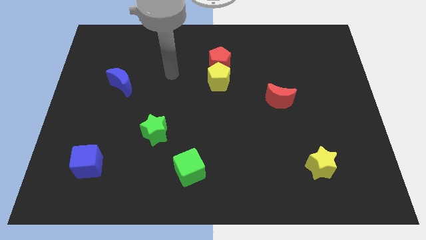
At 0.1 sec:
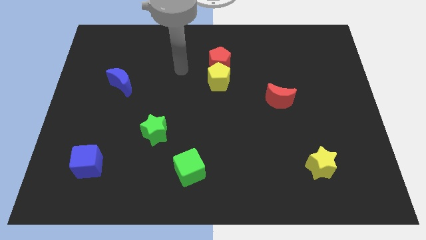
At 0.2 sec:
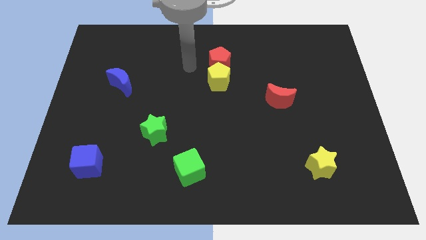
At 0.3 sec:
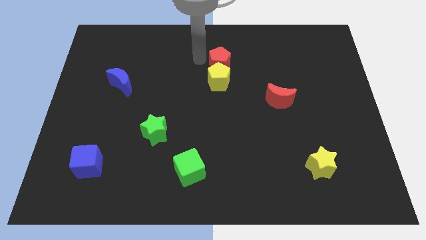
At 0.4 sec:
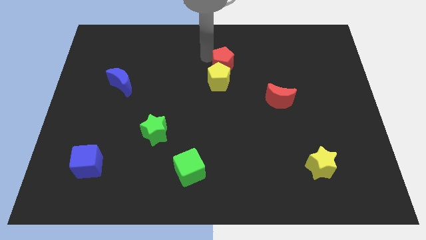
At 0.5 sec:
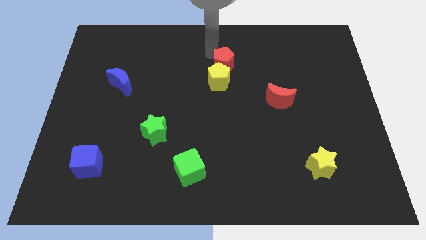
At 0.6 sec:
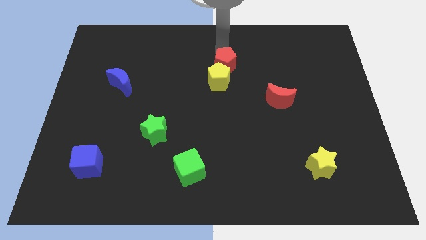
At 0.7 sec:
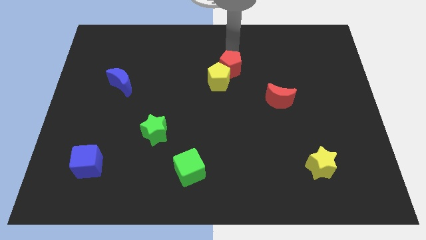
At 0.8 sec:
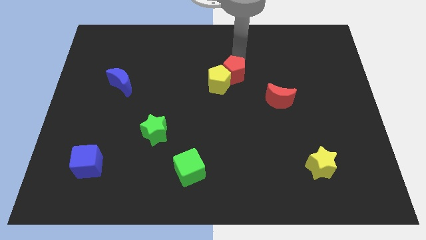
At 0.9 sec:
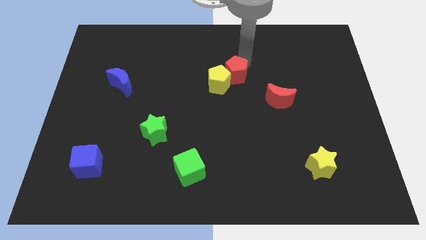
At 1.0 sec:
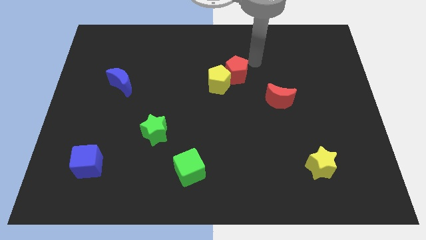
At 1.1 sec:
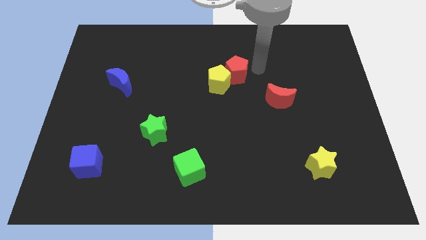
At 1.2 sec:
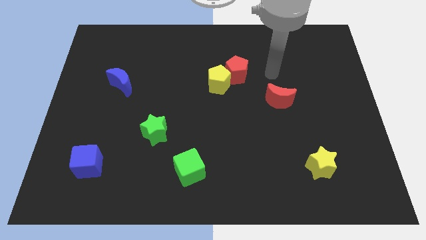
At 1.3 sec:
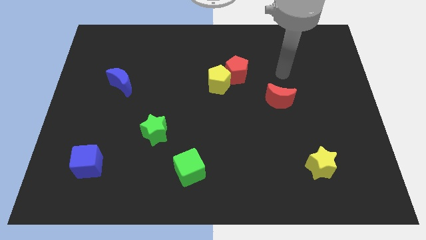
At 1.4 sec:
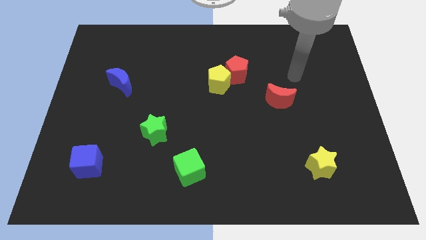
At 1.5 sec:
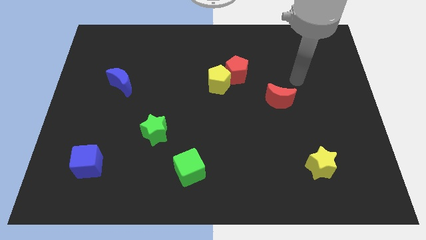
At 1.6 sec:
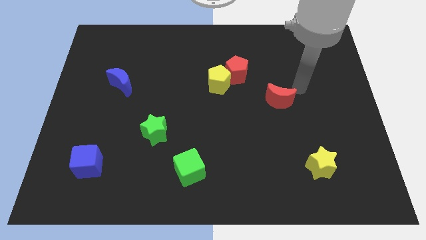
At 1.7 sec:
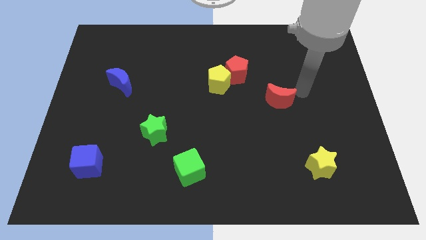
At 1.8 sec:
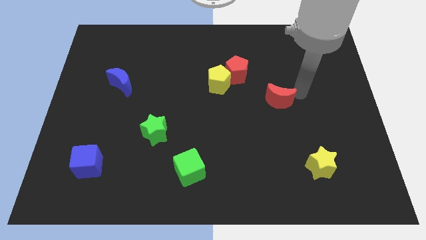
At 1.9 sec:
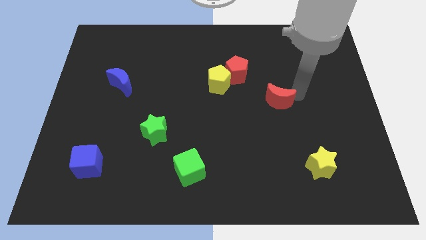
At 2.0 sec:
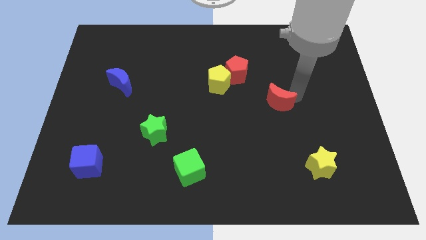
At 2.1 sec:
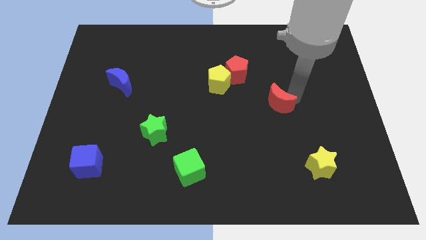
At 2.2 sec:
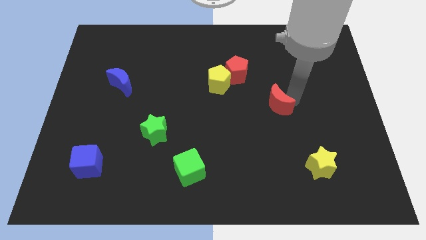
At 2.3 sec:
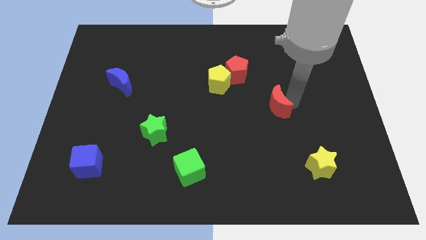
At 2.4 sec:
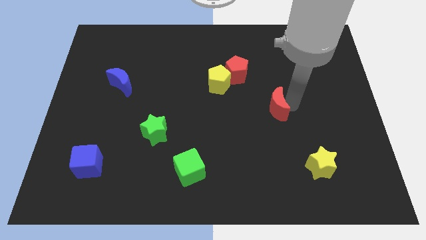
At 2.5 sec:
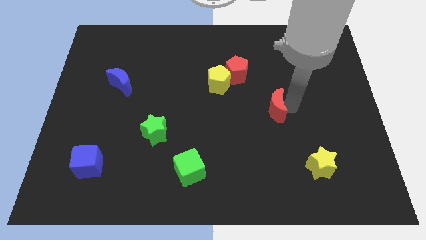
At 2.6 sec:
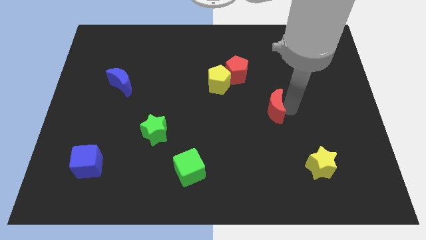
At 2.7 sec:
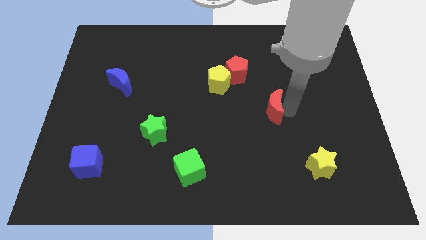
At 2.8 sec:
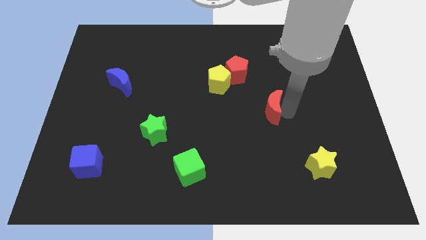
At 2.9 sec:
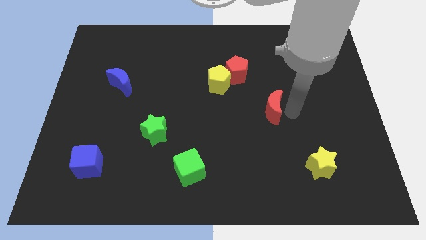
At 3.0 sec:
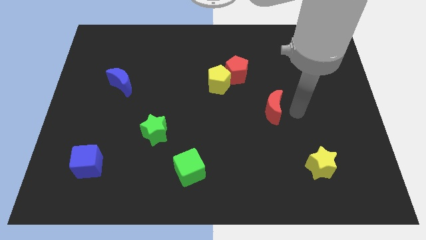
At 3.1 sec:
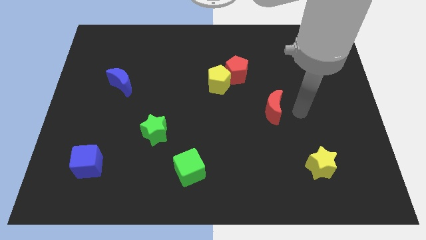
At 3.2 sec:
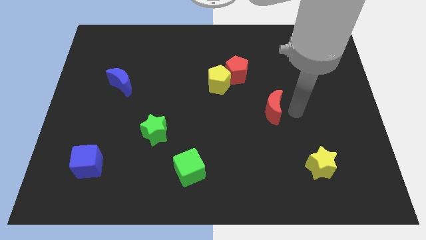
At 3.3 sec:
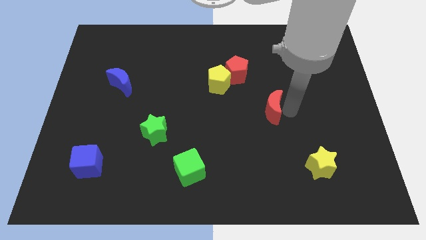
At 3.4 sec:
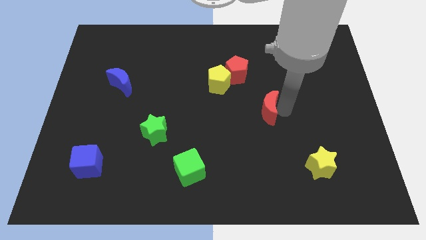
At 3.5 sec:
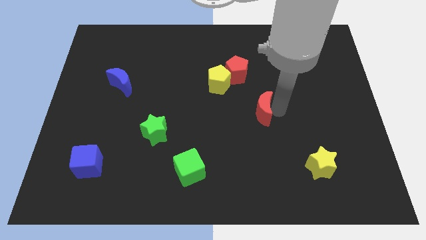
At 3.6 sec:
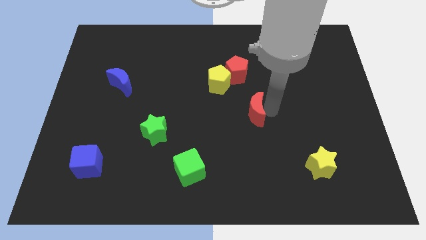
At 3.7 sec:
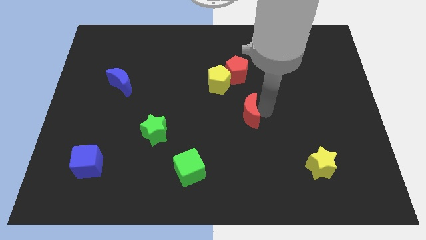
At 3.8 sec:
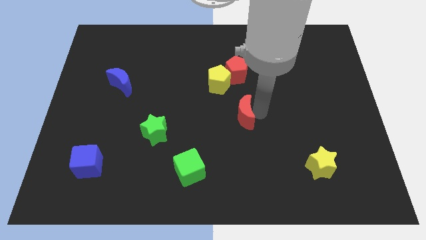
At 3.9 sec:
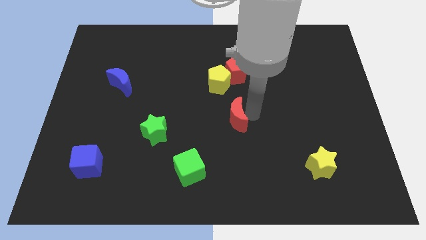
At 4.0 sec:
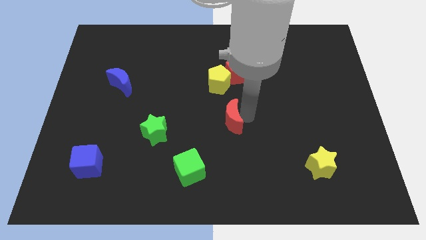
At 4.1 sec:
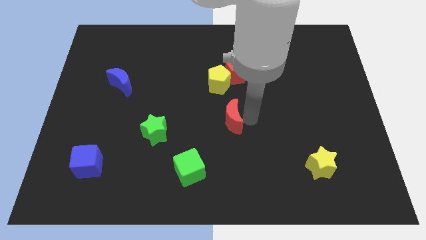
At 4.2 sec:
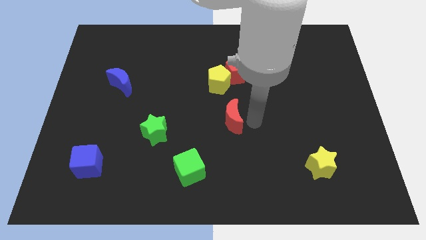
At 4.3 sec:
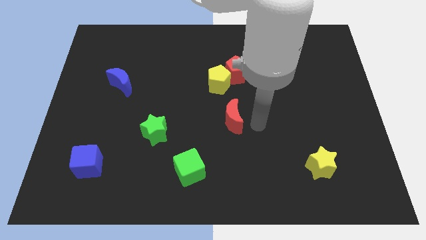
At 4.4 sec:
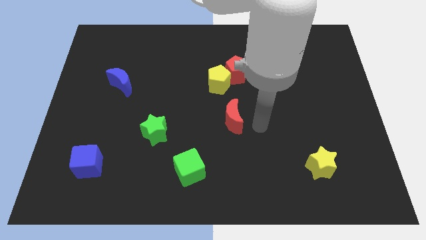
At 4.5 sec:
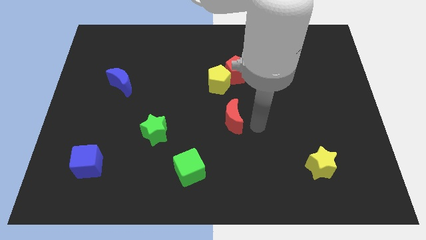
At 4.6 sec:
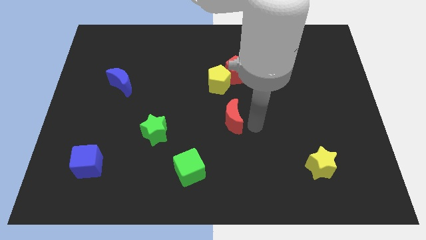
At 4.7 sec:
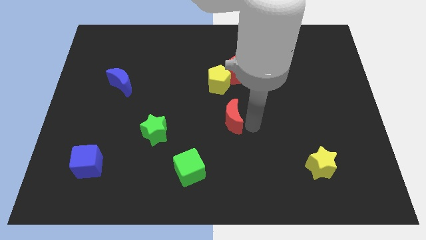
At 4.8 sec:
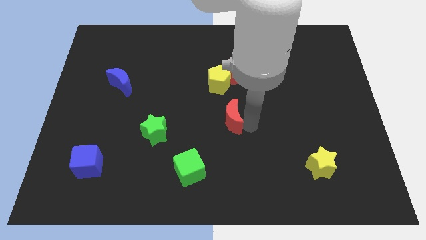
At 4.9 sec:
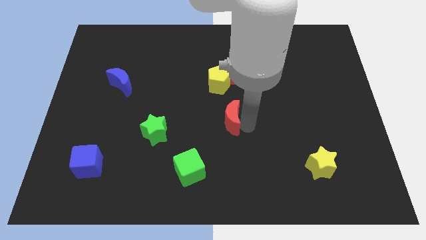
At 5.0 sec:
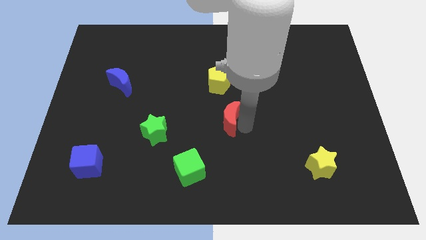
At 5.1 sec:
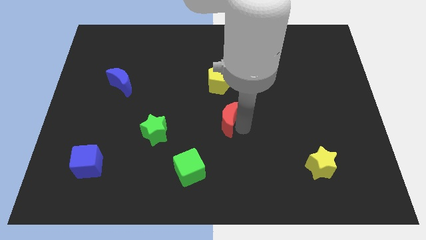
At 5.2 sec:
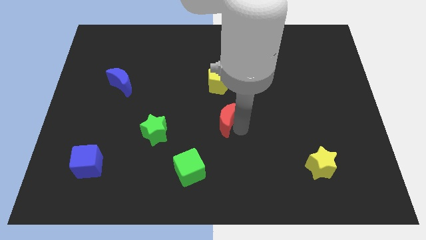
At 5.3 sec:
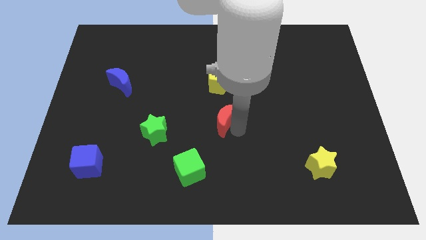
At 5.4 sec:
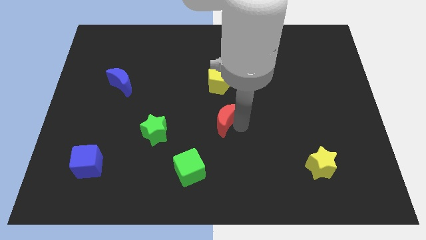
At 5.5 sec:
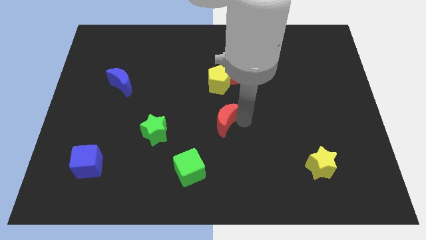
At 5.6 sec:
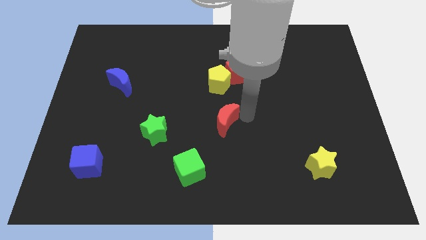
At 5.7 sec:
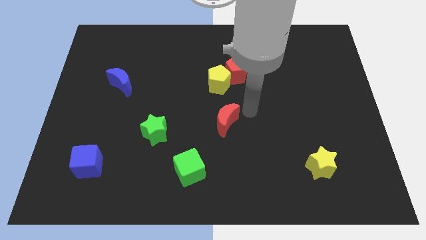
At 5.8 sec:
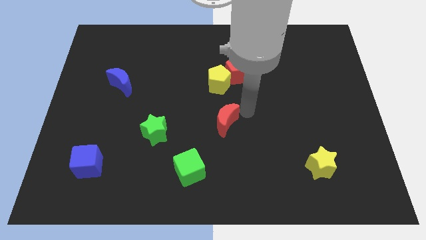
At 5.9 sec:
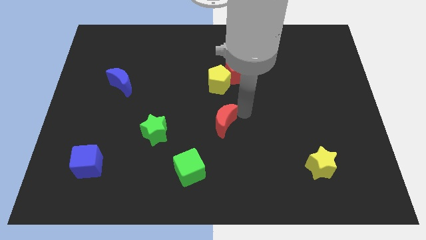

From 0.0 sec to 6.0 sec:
put the red moon right of the green star

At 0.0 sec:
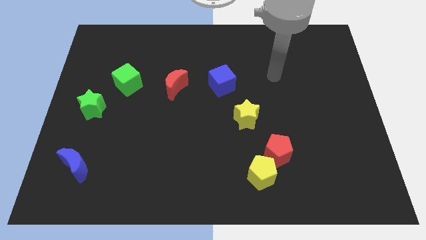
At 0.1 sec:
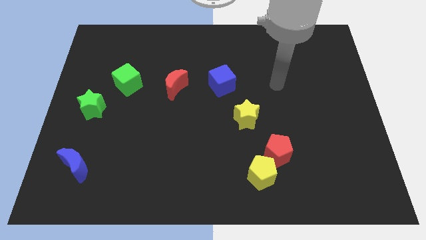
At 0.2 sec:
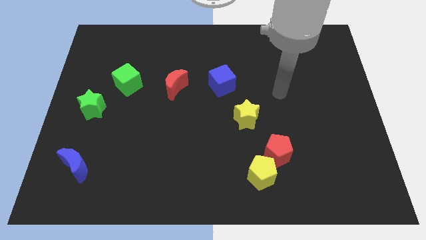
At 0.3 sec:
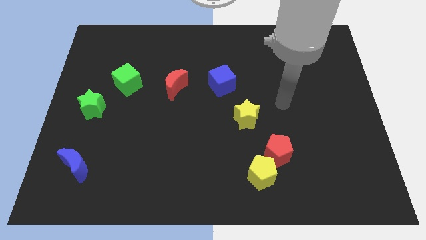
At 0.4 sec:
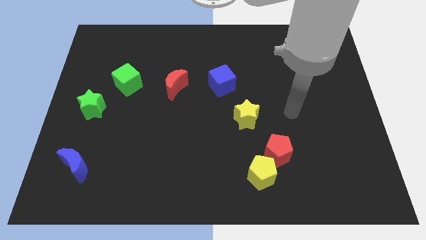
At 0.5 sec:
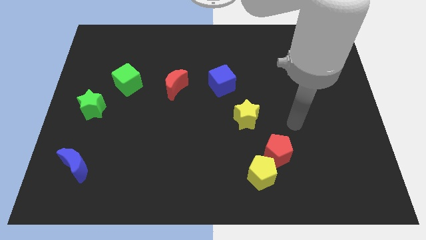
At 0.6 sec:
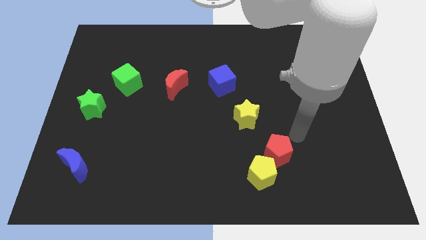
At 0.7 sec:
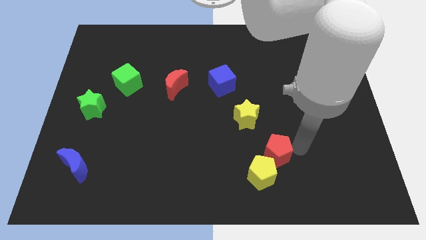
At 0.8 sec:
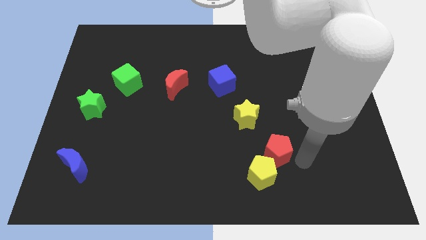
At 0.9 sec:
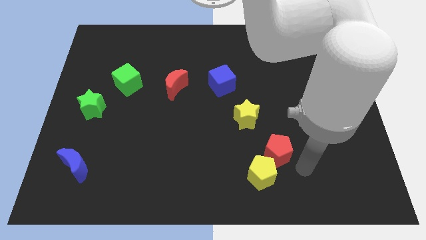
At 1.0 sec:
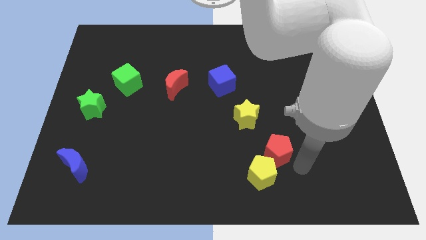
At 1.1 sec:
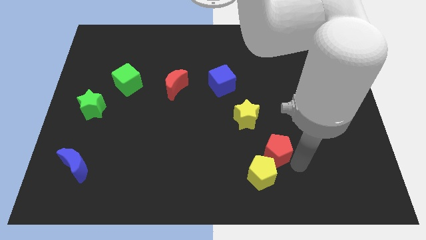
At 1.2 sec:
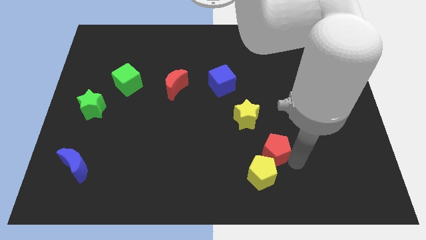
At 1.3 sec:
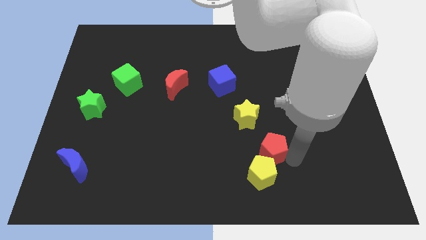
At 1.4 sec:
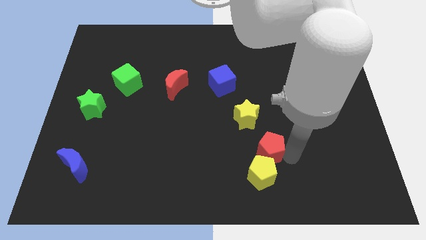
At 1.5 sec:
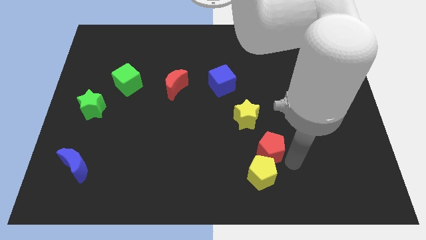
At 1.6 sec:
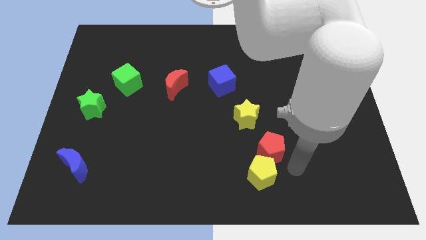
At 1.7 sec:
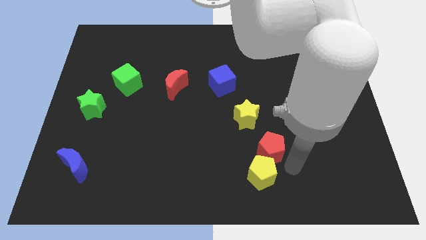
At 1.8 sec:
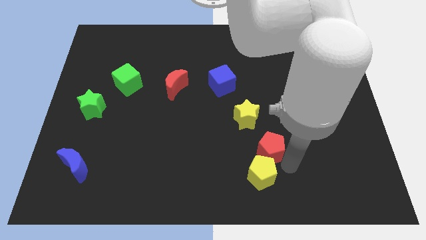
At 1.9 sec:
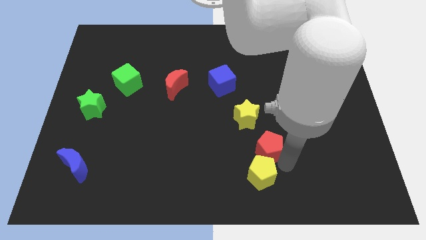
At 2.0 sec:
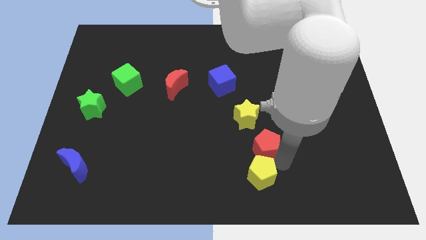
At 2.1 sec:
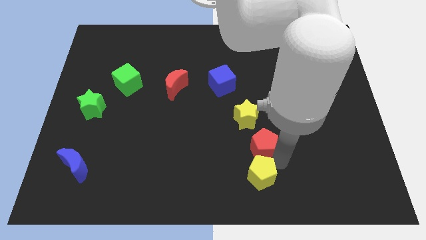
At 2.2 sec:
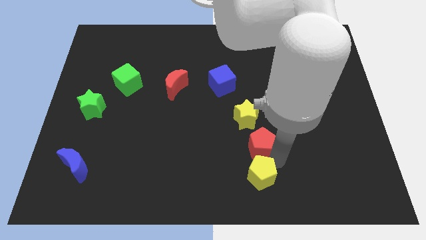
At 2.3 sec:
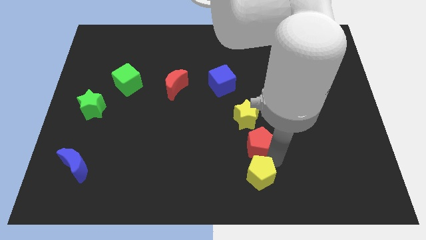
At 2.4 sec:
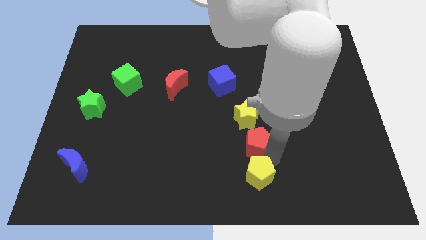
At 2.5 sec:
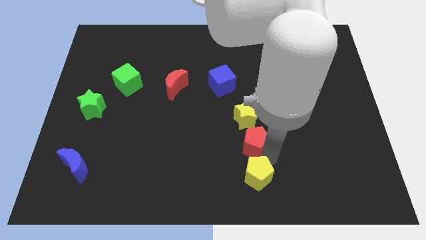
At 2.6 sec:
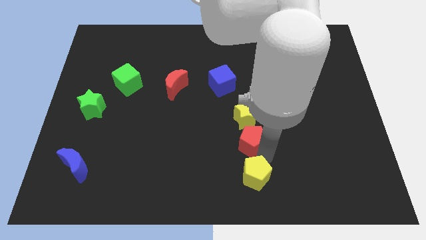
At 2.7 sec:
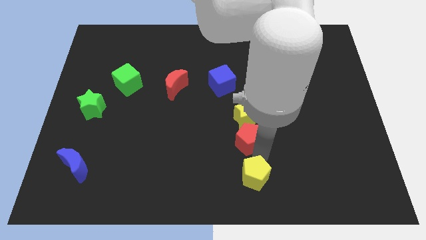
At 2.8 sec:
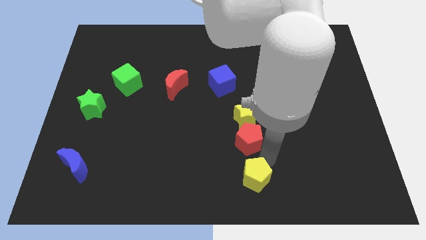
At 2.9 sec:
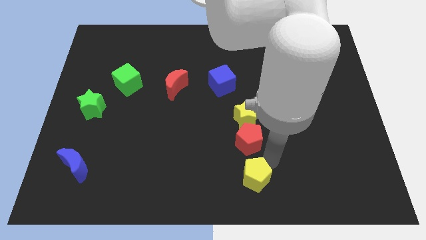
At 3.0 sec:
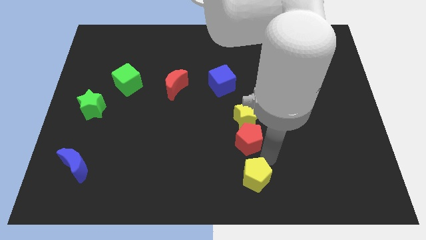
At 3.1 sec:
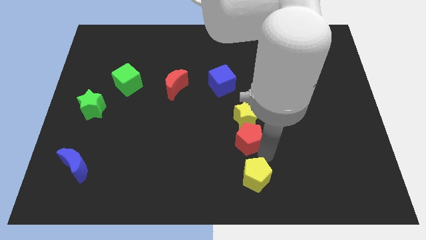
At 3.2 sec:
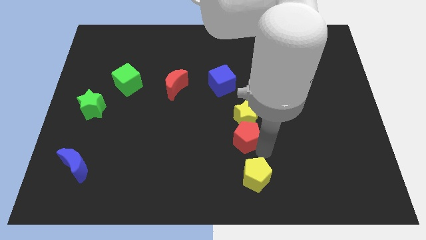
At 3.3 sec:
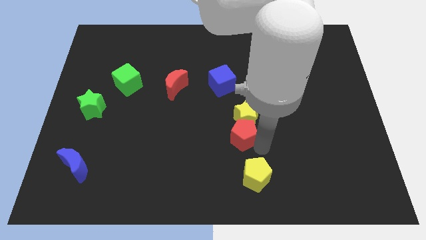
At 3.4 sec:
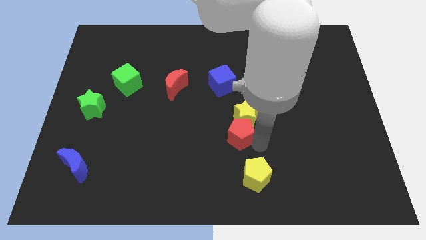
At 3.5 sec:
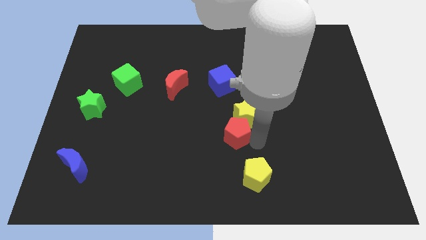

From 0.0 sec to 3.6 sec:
put the red pentagon below the blue cube
